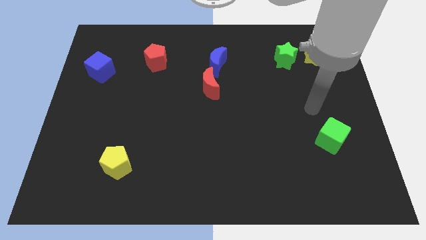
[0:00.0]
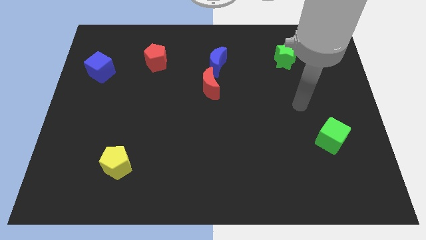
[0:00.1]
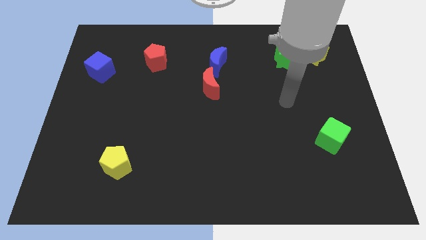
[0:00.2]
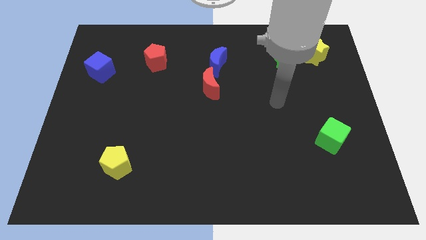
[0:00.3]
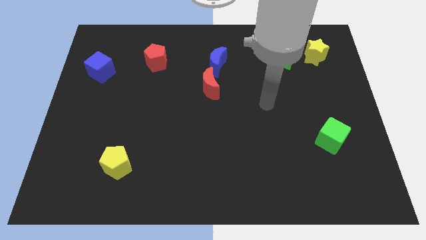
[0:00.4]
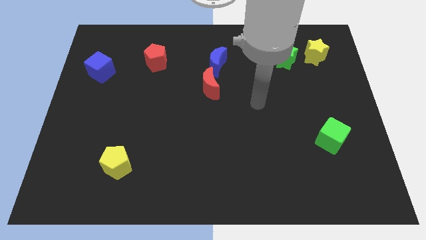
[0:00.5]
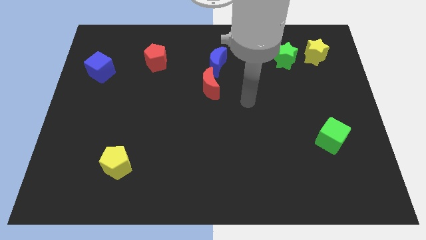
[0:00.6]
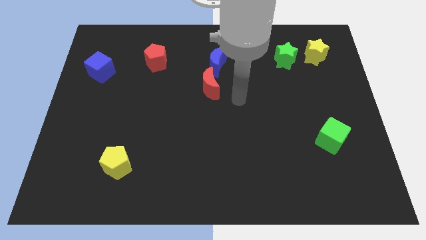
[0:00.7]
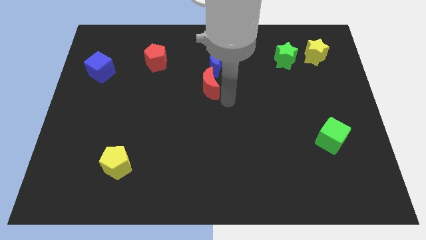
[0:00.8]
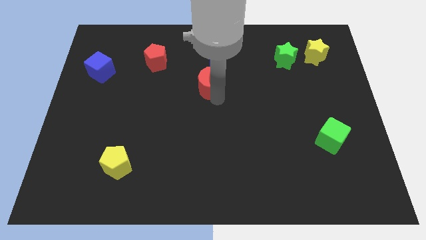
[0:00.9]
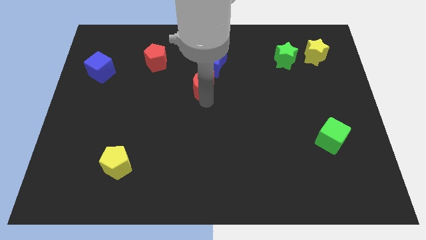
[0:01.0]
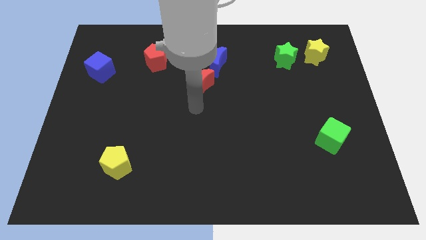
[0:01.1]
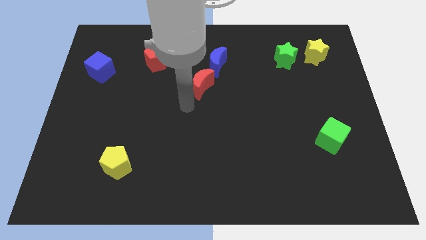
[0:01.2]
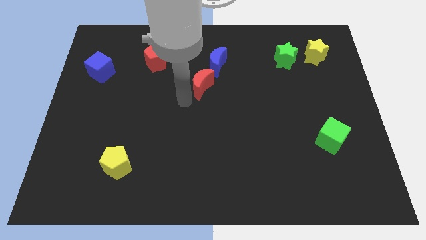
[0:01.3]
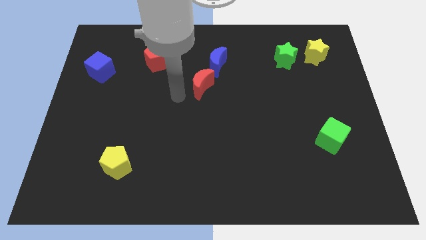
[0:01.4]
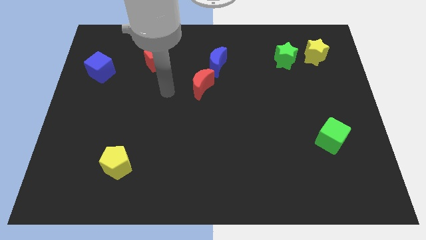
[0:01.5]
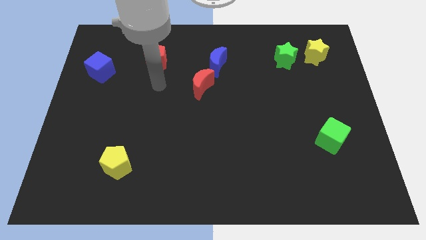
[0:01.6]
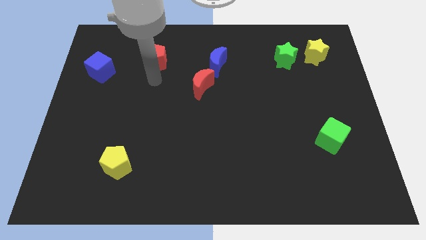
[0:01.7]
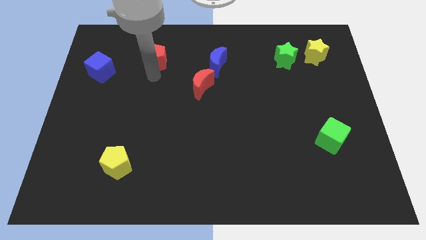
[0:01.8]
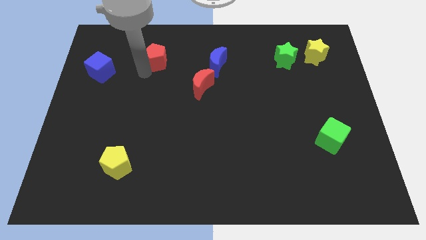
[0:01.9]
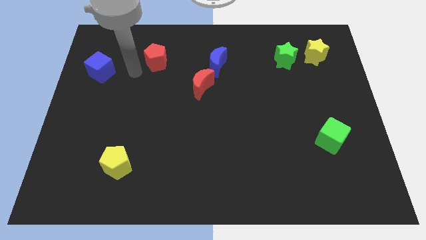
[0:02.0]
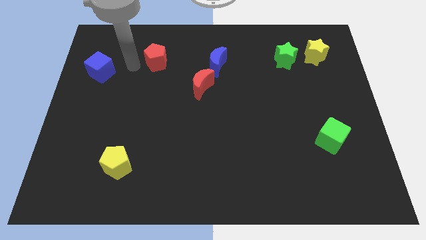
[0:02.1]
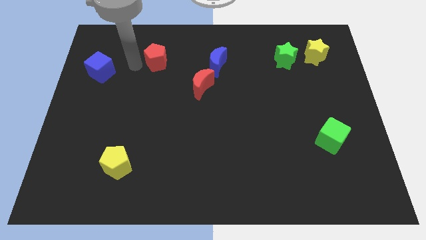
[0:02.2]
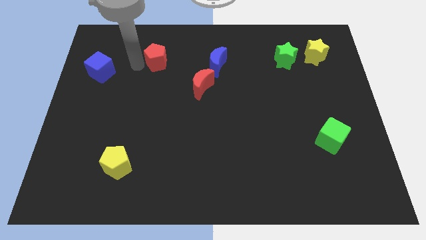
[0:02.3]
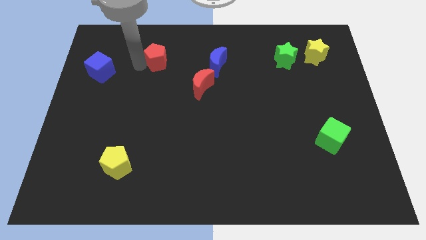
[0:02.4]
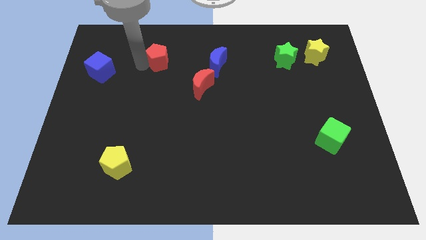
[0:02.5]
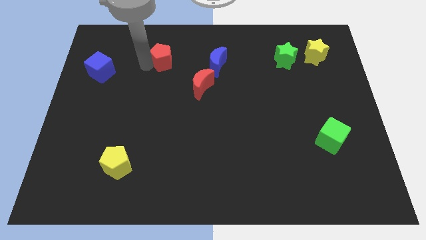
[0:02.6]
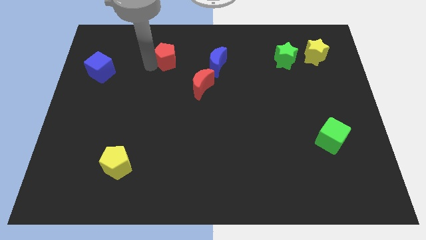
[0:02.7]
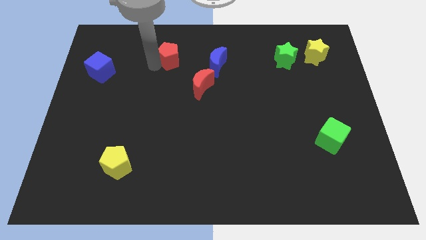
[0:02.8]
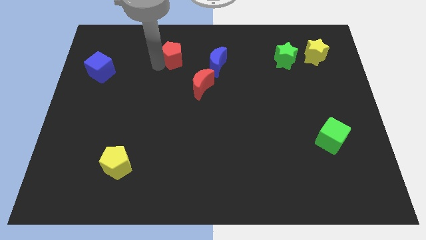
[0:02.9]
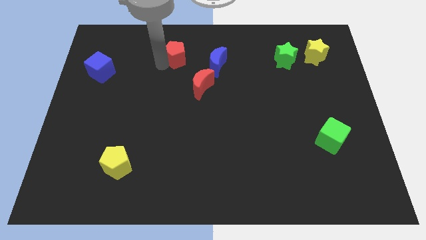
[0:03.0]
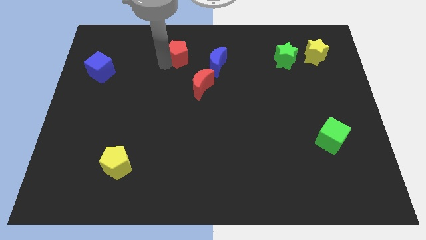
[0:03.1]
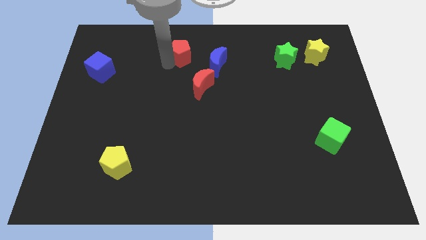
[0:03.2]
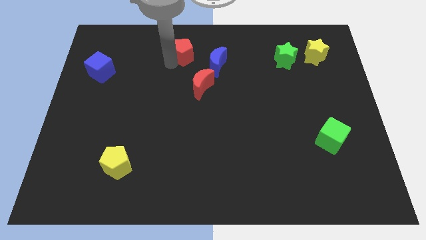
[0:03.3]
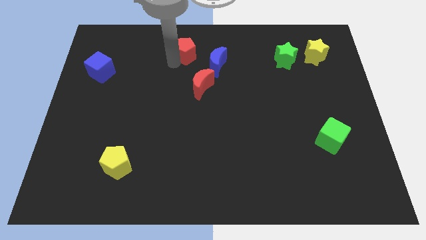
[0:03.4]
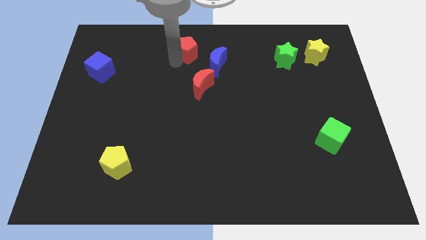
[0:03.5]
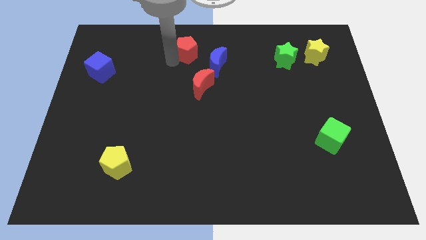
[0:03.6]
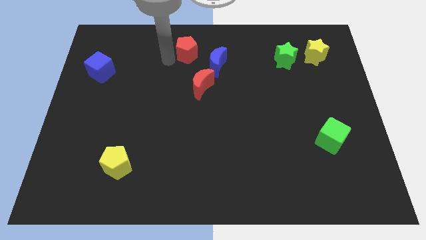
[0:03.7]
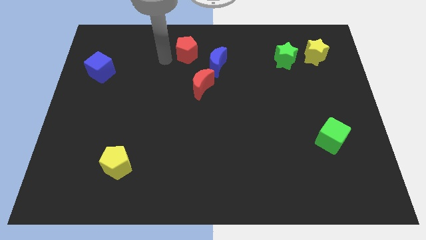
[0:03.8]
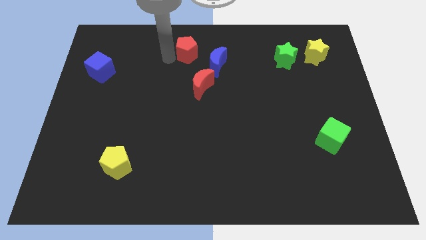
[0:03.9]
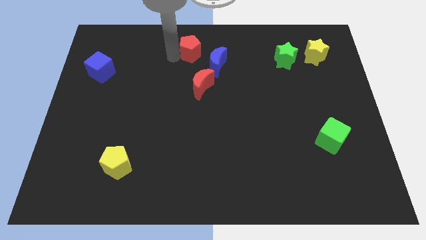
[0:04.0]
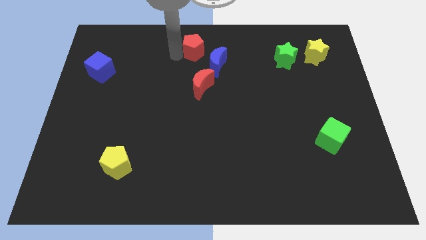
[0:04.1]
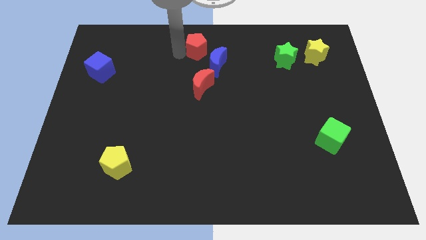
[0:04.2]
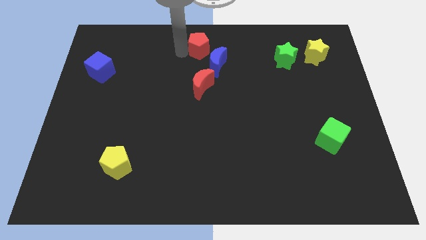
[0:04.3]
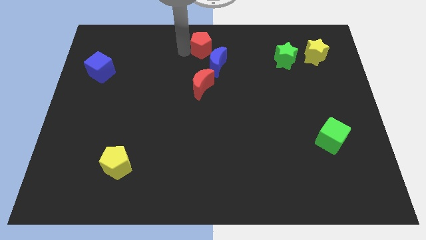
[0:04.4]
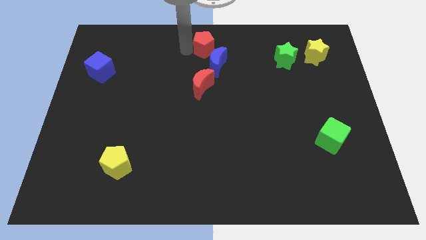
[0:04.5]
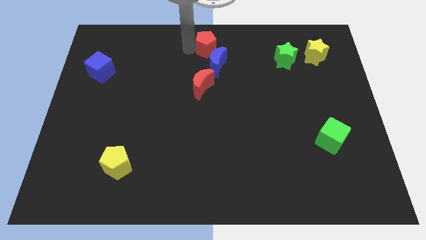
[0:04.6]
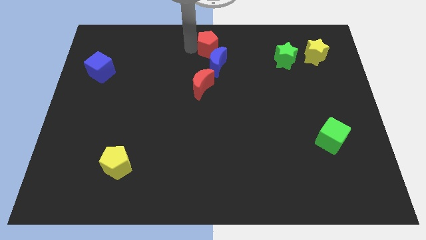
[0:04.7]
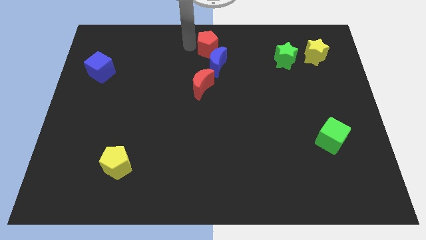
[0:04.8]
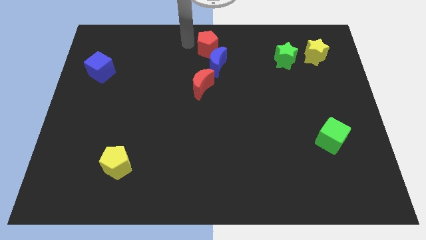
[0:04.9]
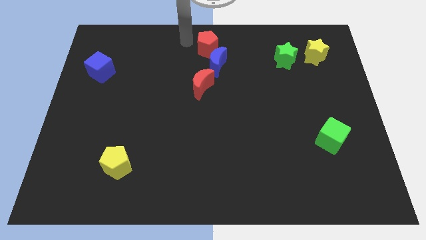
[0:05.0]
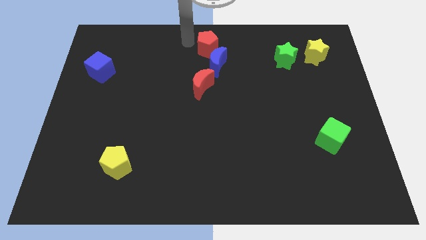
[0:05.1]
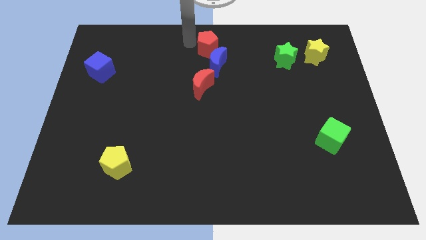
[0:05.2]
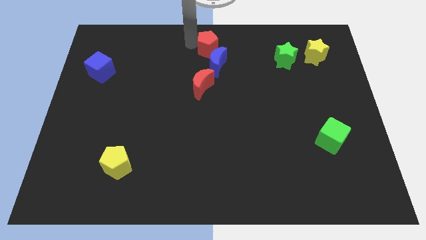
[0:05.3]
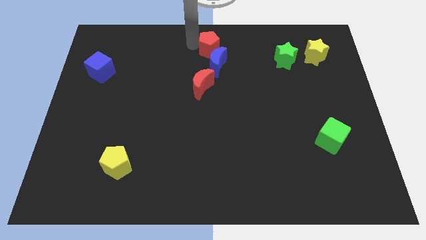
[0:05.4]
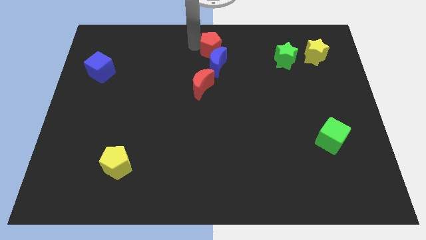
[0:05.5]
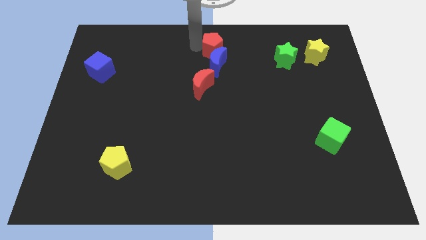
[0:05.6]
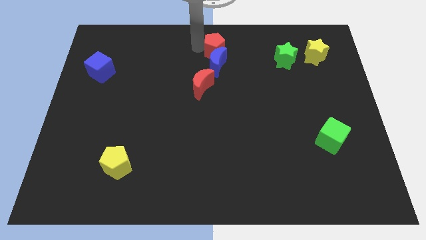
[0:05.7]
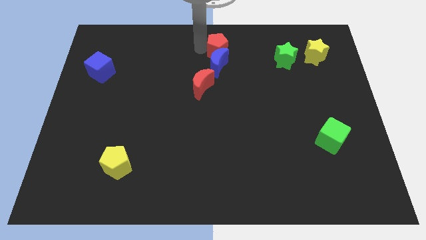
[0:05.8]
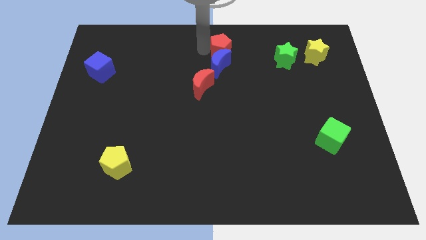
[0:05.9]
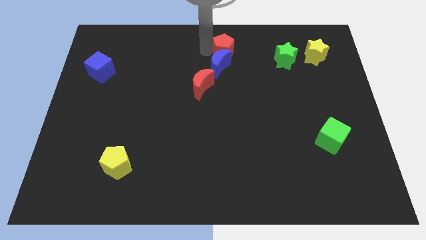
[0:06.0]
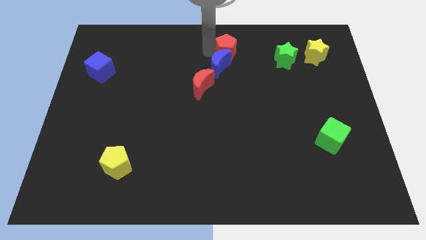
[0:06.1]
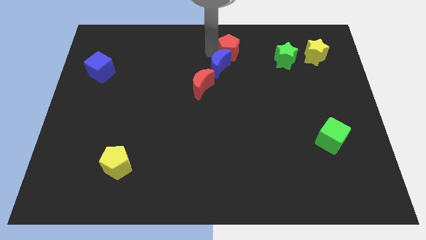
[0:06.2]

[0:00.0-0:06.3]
put the red pentagon to the left of the green star

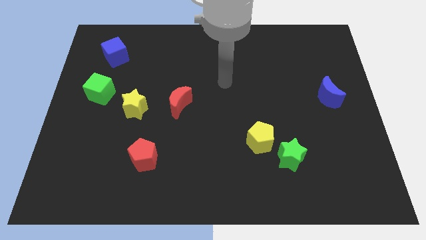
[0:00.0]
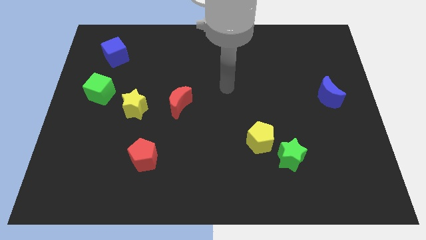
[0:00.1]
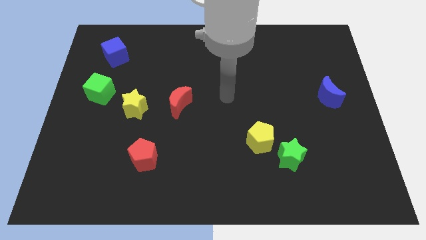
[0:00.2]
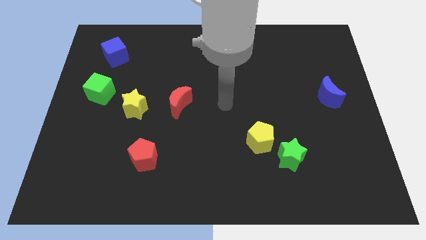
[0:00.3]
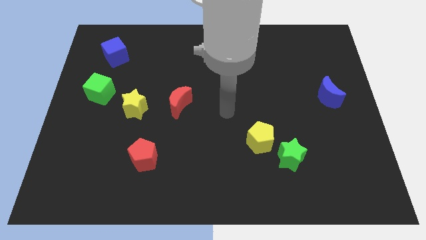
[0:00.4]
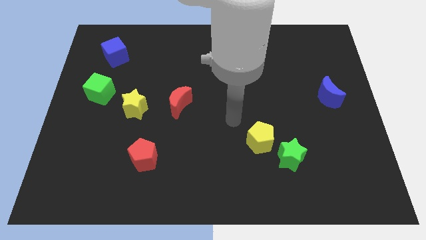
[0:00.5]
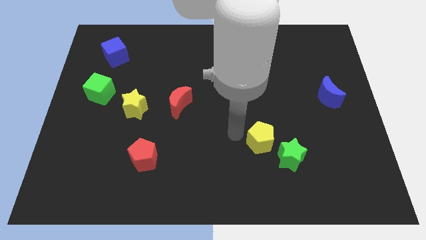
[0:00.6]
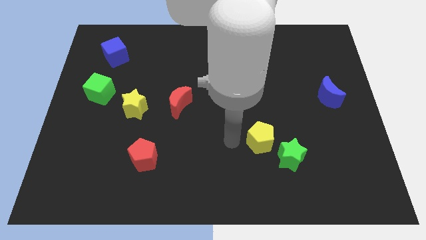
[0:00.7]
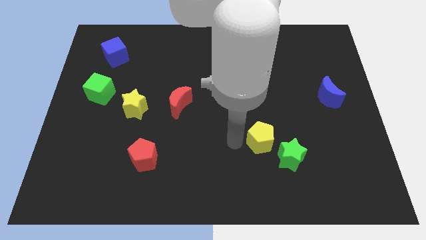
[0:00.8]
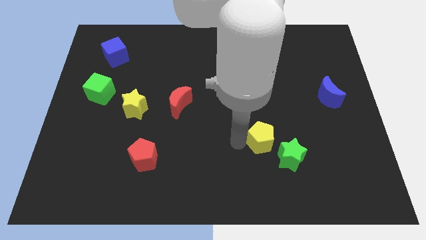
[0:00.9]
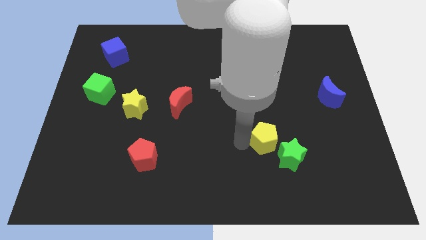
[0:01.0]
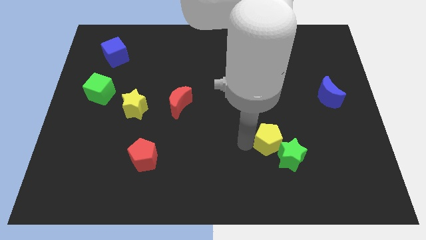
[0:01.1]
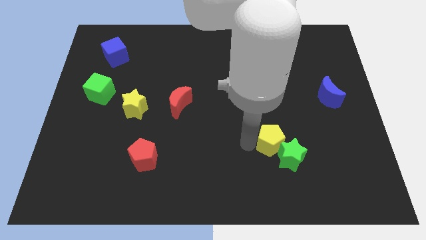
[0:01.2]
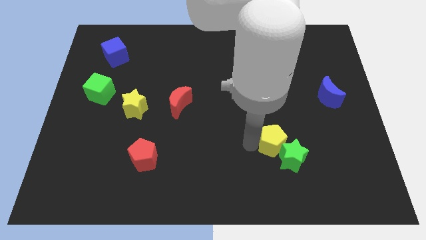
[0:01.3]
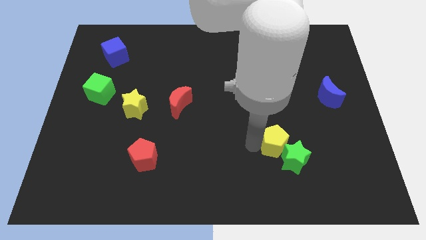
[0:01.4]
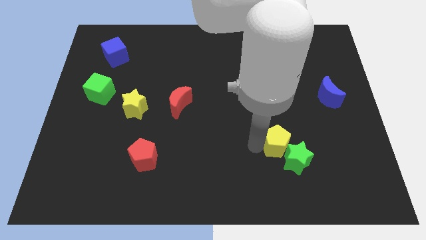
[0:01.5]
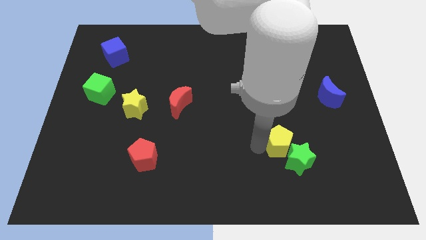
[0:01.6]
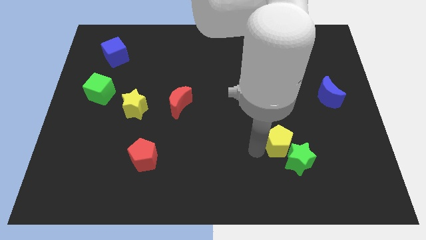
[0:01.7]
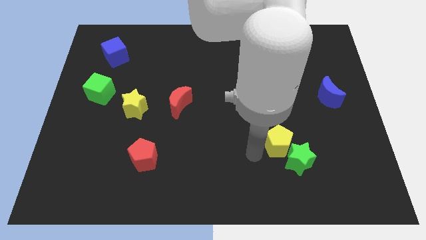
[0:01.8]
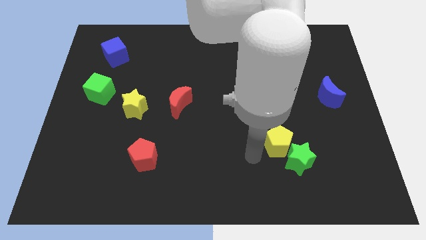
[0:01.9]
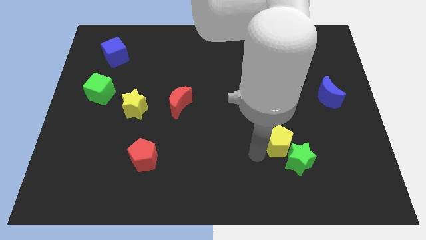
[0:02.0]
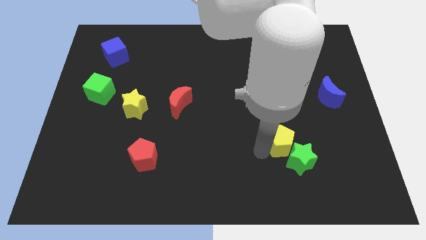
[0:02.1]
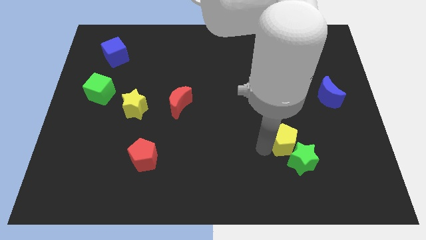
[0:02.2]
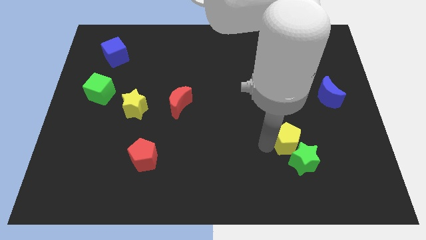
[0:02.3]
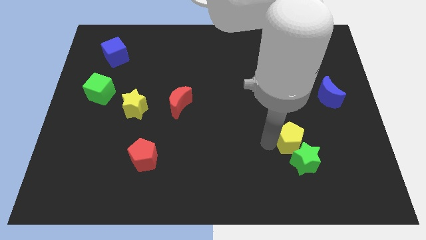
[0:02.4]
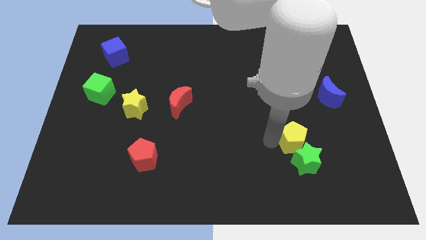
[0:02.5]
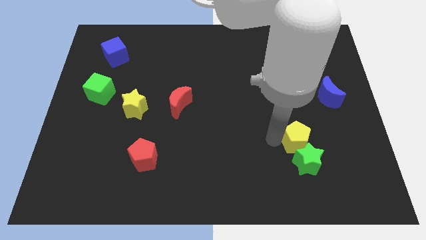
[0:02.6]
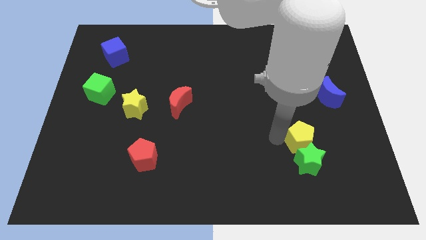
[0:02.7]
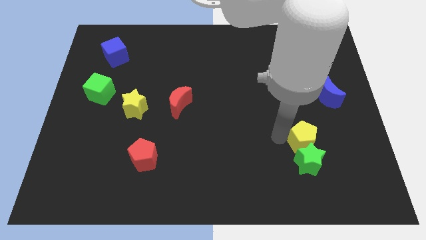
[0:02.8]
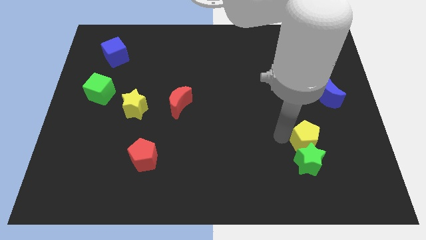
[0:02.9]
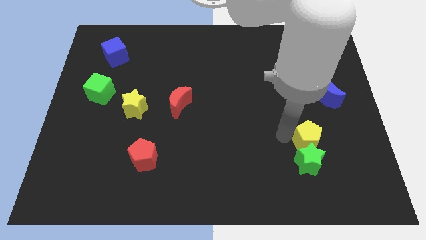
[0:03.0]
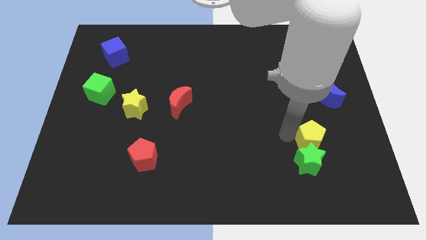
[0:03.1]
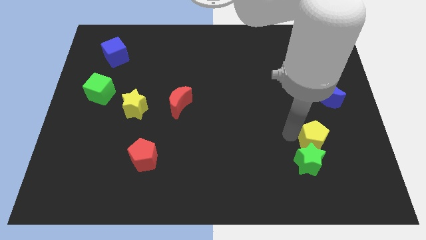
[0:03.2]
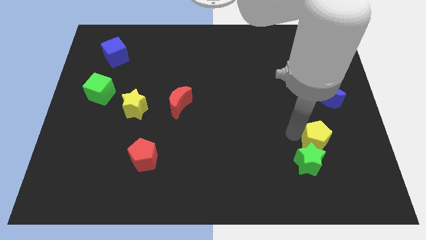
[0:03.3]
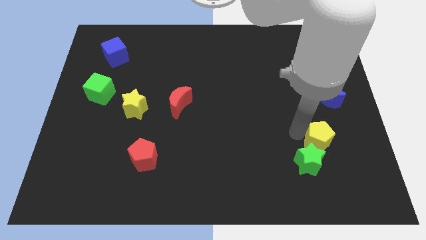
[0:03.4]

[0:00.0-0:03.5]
move the yellow pentagon to the bottom of the blue moon
